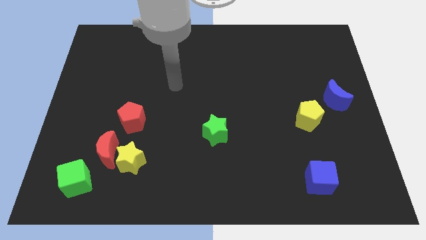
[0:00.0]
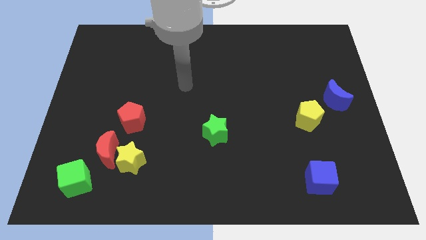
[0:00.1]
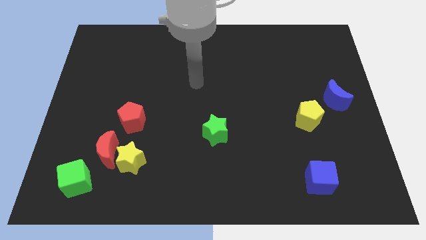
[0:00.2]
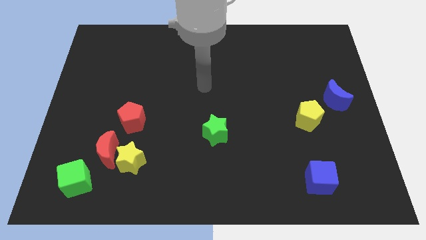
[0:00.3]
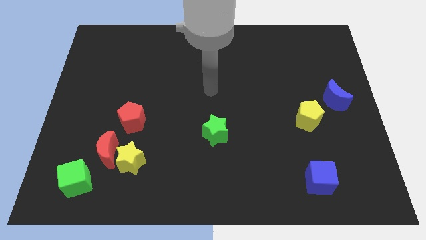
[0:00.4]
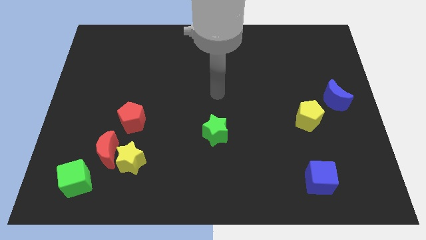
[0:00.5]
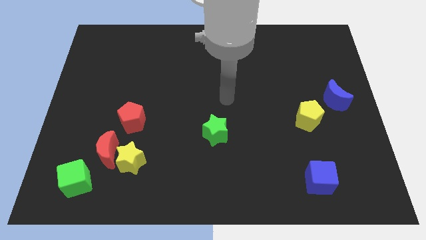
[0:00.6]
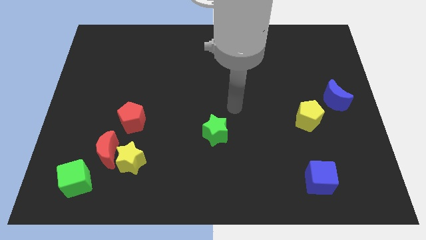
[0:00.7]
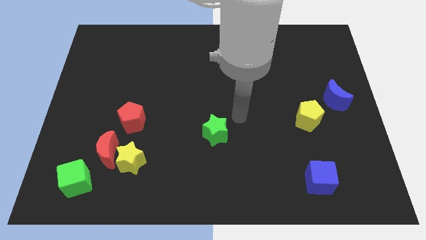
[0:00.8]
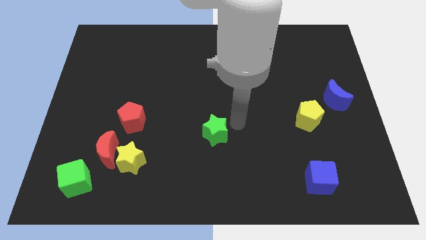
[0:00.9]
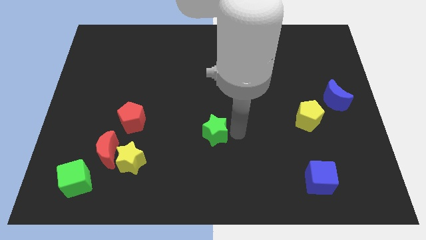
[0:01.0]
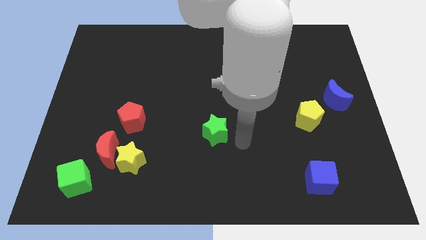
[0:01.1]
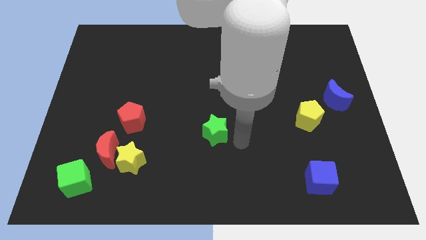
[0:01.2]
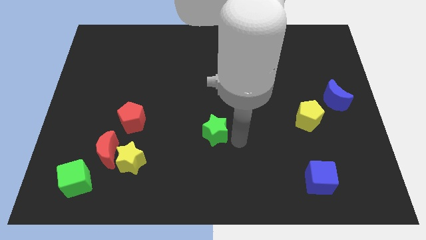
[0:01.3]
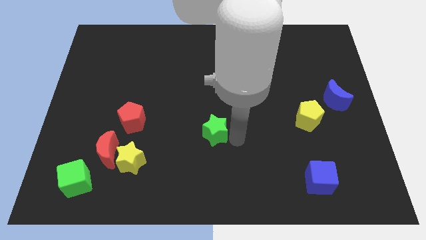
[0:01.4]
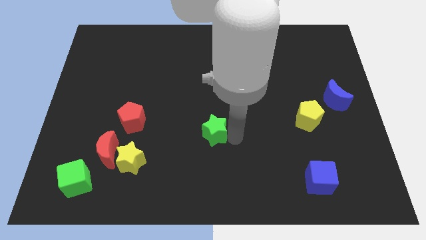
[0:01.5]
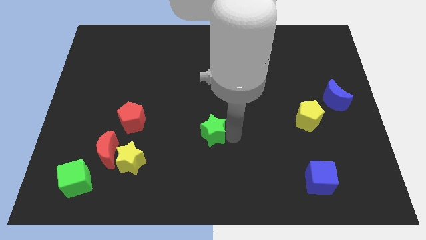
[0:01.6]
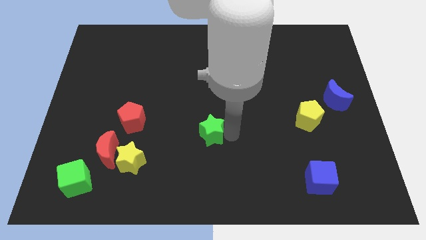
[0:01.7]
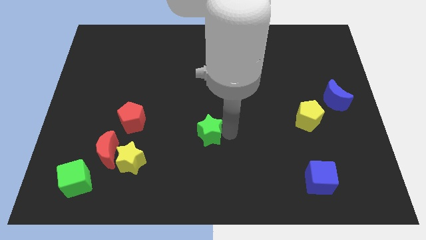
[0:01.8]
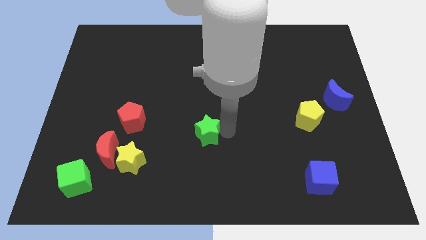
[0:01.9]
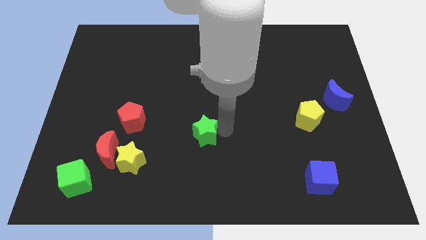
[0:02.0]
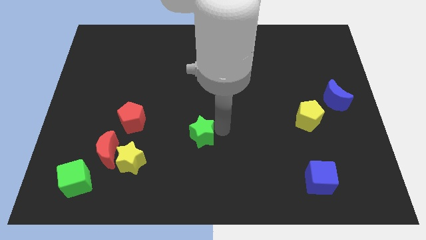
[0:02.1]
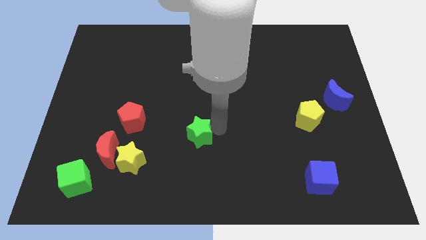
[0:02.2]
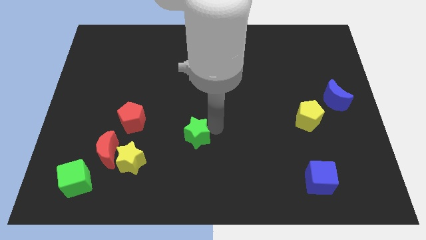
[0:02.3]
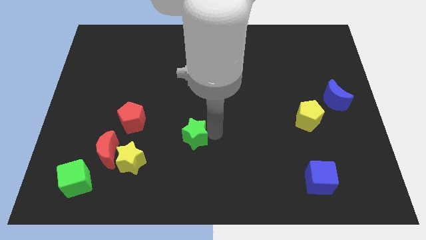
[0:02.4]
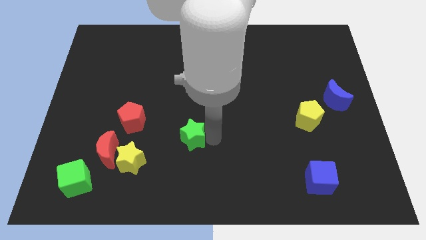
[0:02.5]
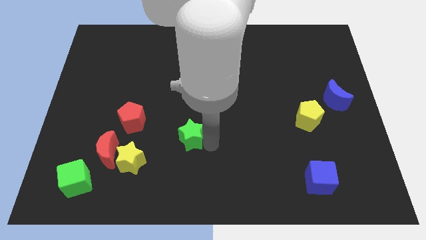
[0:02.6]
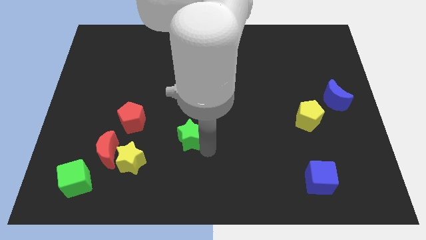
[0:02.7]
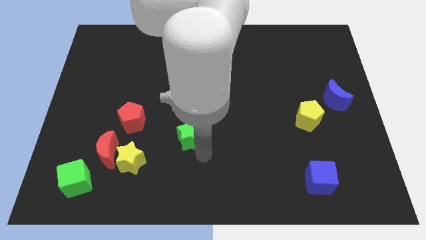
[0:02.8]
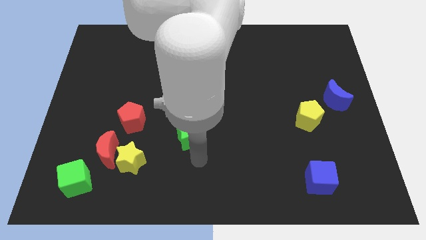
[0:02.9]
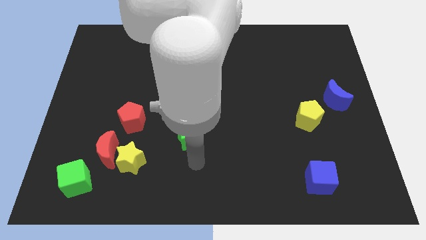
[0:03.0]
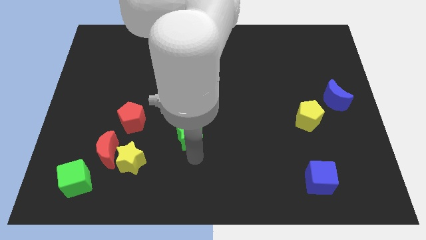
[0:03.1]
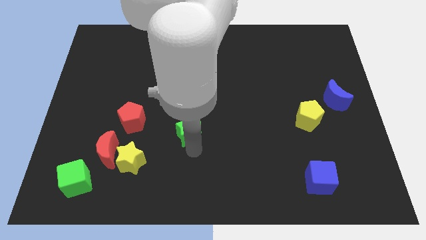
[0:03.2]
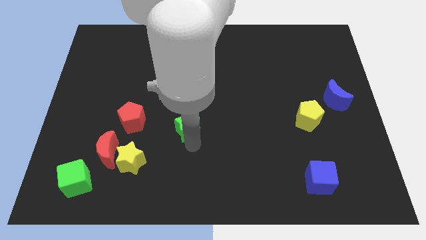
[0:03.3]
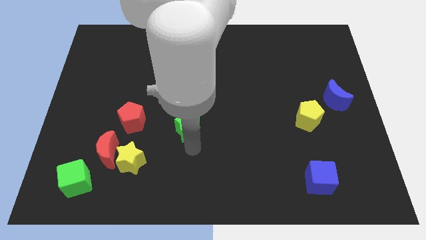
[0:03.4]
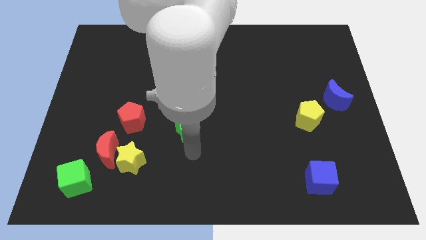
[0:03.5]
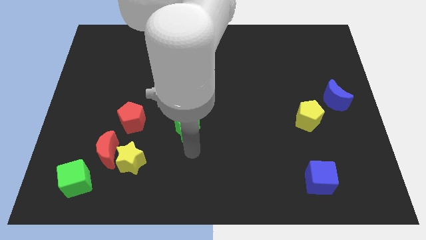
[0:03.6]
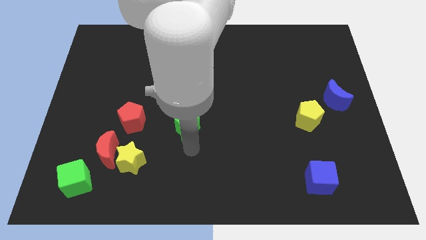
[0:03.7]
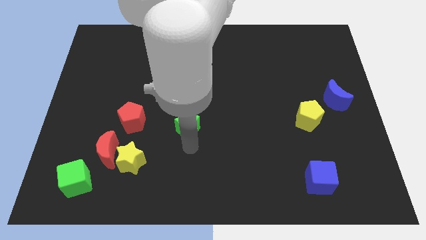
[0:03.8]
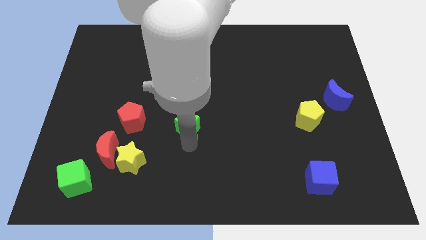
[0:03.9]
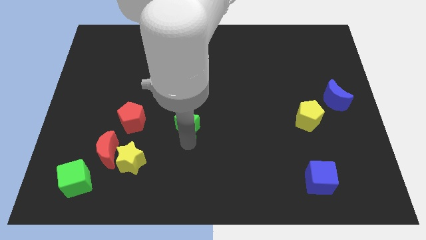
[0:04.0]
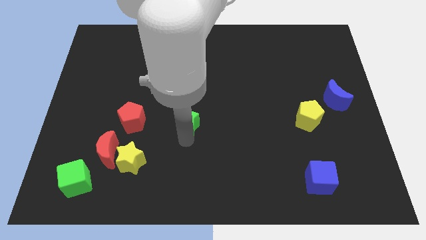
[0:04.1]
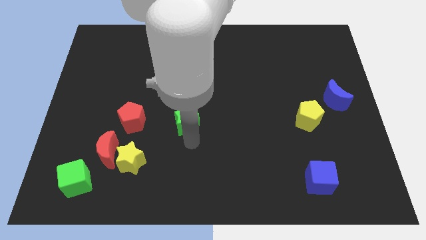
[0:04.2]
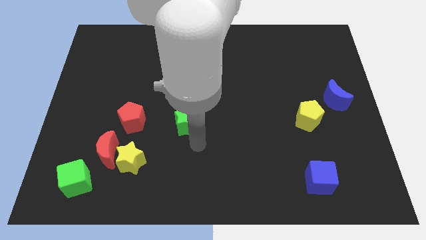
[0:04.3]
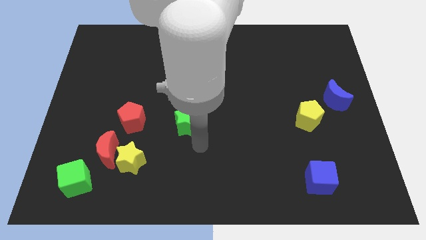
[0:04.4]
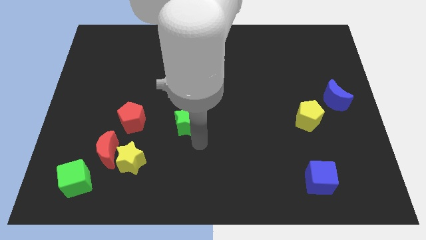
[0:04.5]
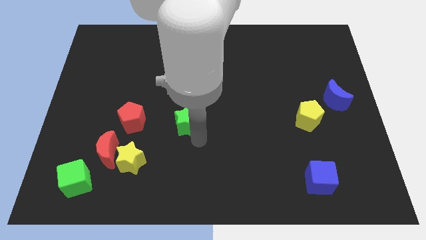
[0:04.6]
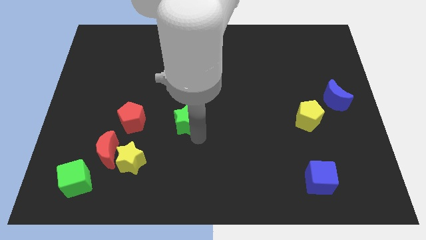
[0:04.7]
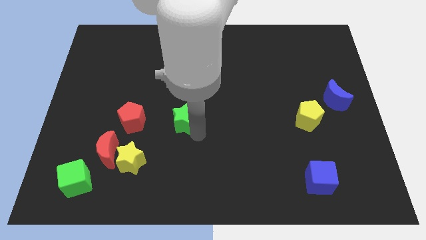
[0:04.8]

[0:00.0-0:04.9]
move the green star upwards and left diagonally a little

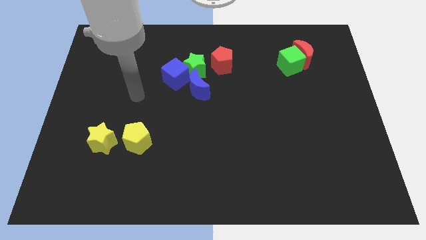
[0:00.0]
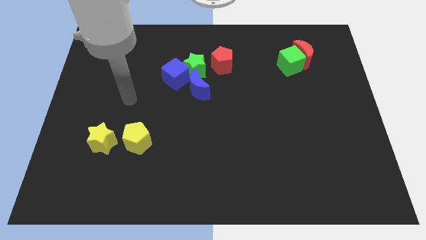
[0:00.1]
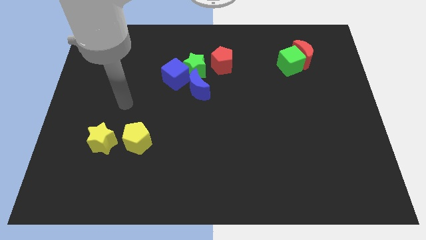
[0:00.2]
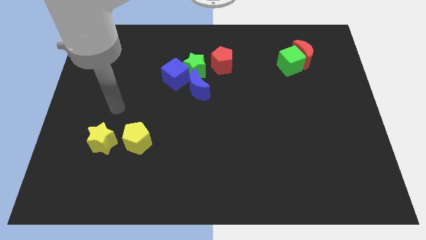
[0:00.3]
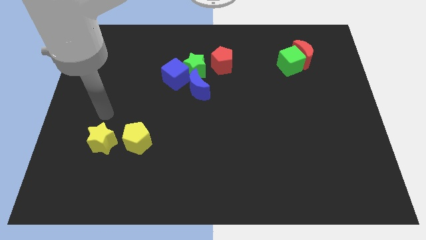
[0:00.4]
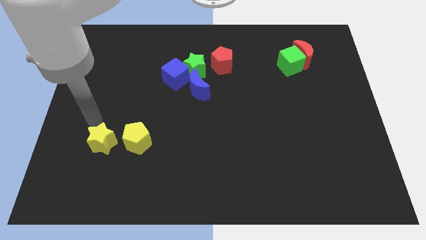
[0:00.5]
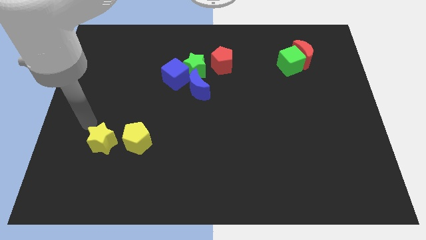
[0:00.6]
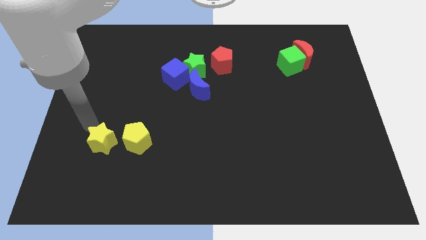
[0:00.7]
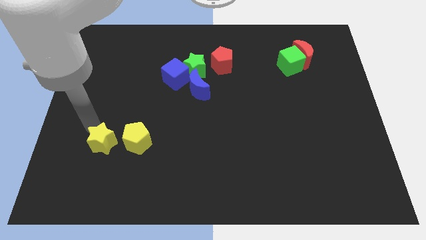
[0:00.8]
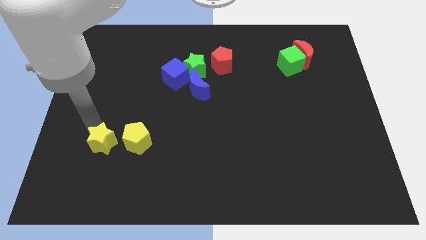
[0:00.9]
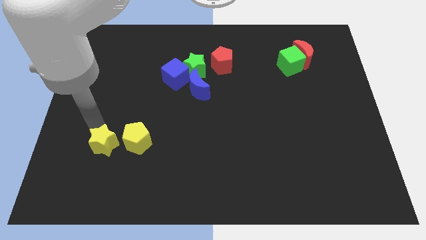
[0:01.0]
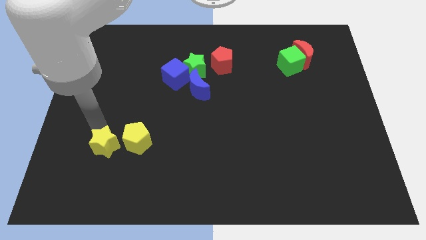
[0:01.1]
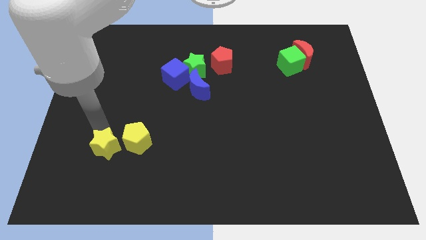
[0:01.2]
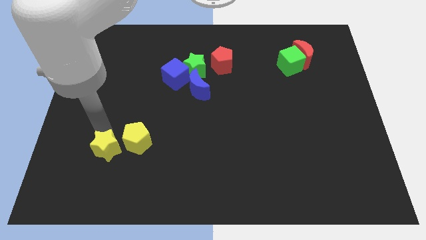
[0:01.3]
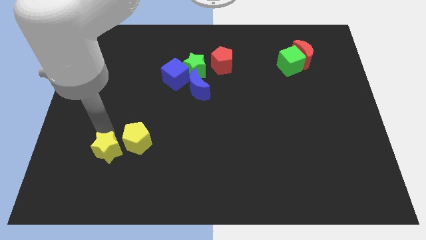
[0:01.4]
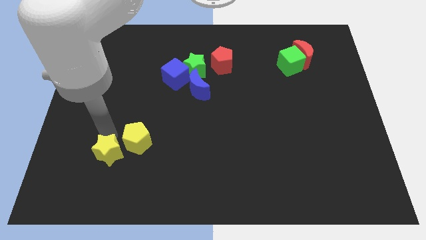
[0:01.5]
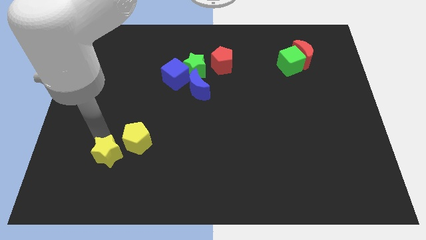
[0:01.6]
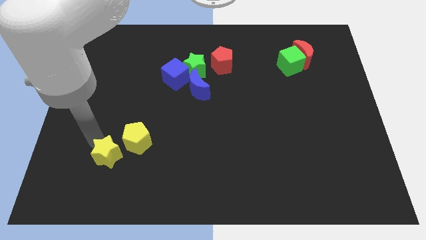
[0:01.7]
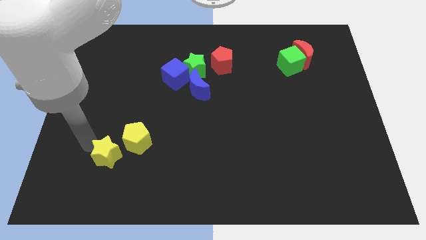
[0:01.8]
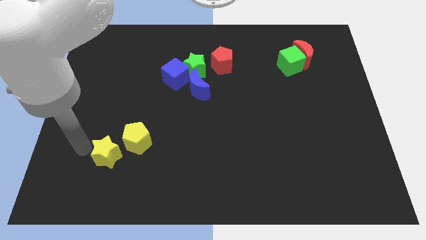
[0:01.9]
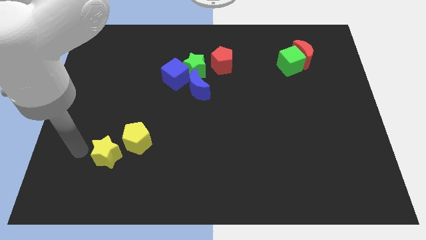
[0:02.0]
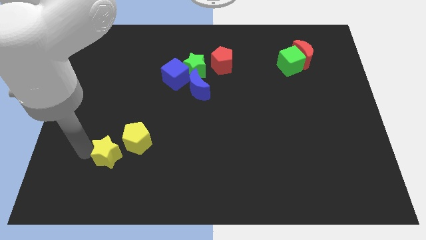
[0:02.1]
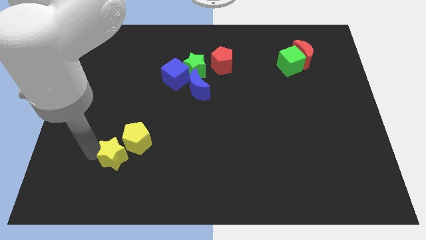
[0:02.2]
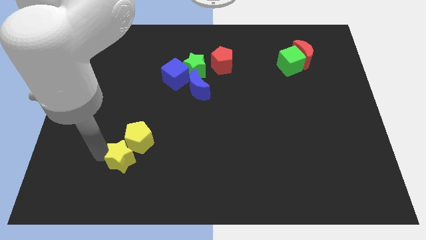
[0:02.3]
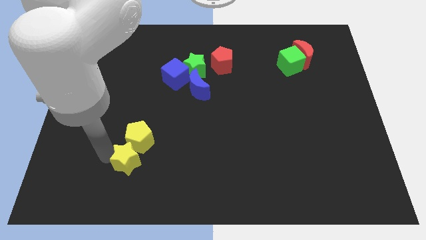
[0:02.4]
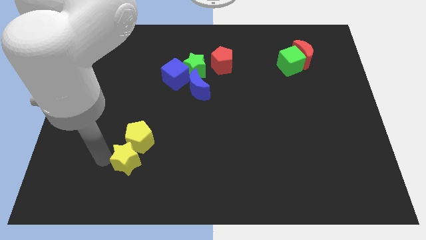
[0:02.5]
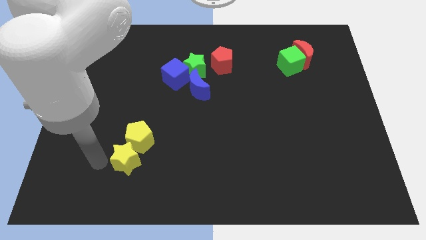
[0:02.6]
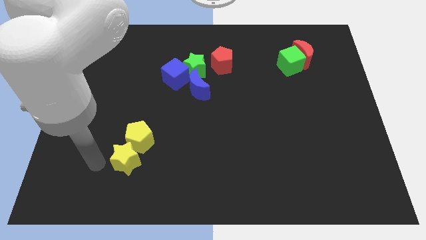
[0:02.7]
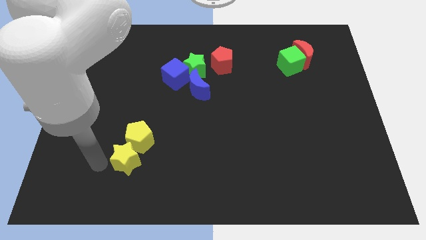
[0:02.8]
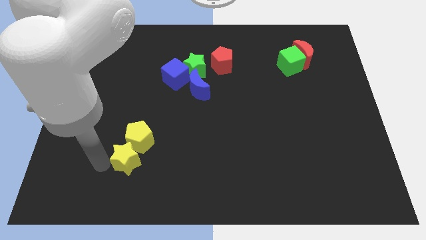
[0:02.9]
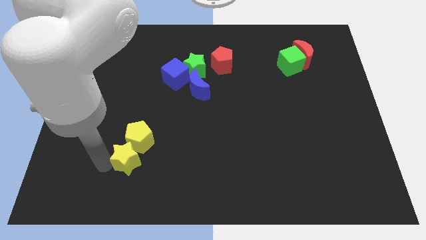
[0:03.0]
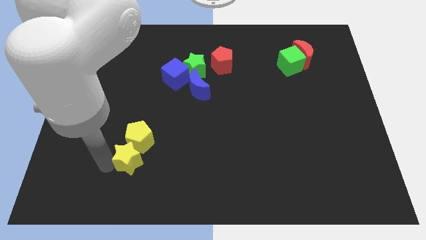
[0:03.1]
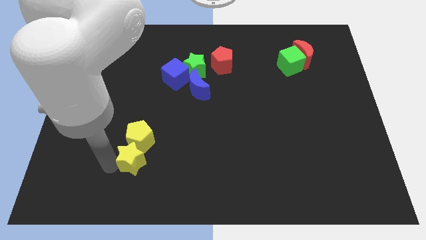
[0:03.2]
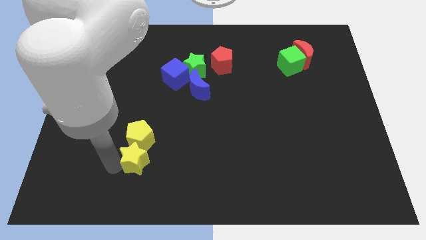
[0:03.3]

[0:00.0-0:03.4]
push the yellow star right somewhat
